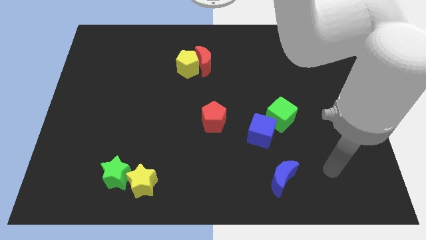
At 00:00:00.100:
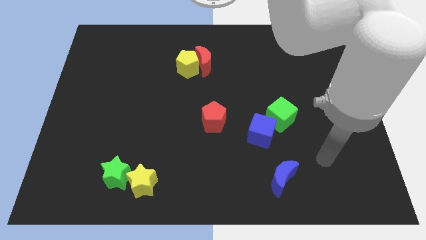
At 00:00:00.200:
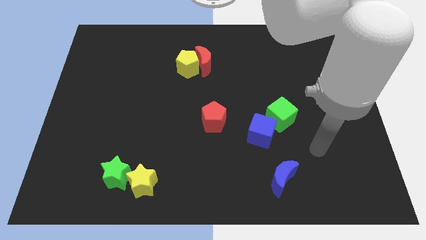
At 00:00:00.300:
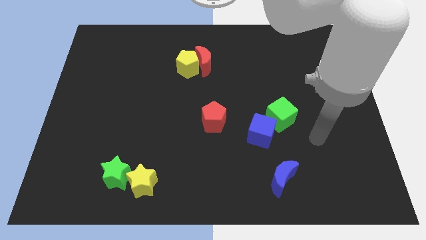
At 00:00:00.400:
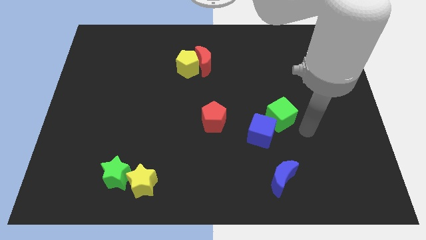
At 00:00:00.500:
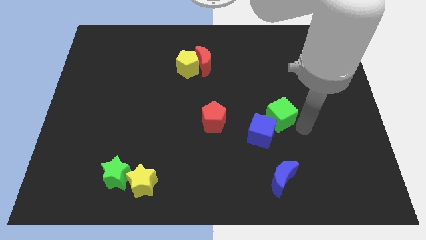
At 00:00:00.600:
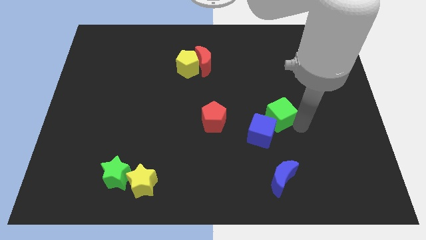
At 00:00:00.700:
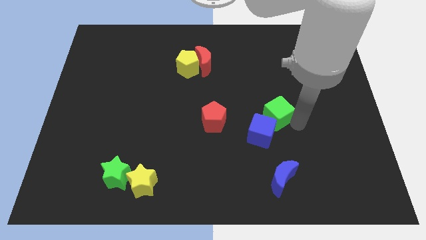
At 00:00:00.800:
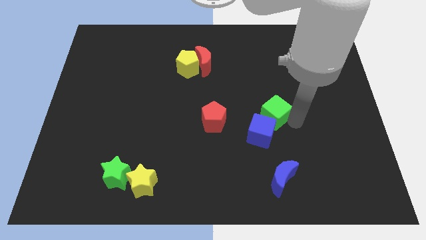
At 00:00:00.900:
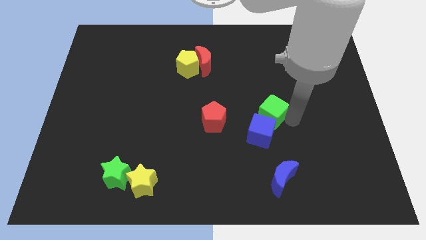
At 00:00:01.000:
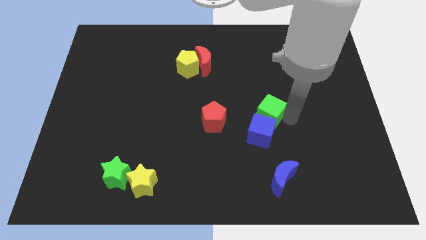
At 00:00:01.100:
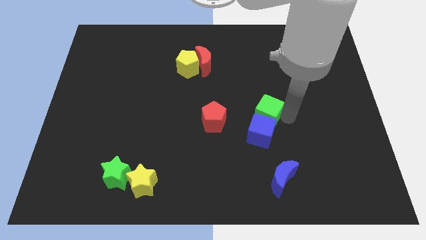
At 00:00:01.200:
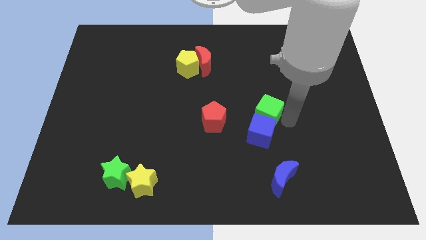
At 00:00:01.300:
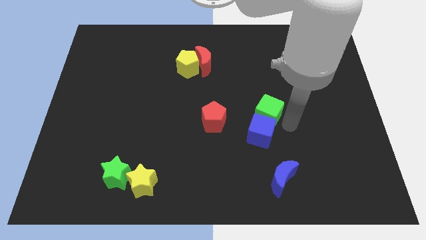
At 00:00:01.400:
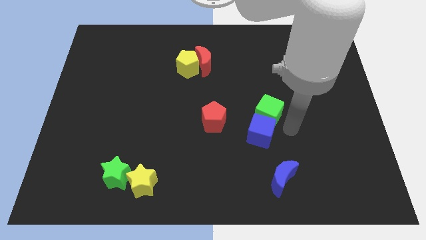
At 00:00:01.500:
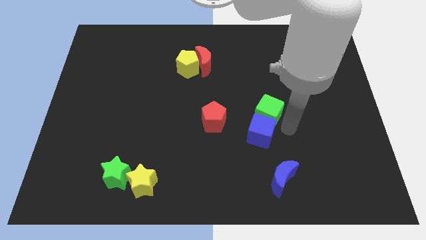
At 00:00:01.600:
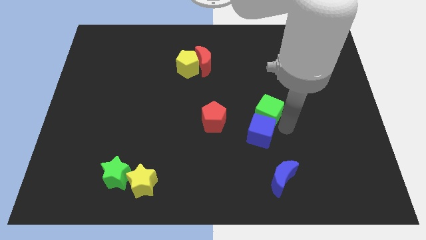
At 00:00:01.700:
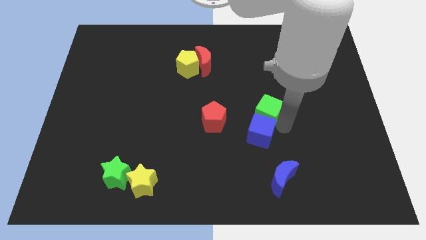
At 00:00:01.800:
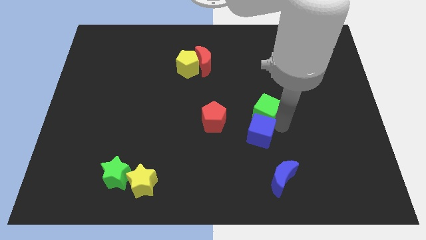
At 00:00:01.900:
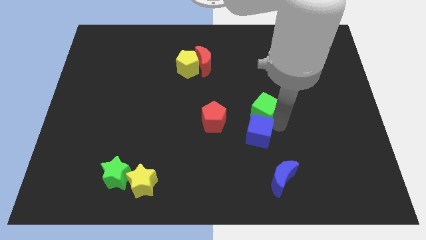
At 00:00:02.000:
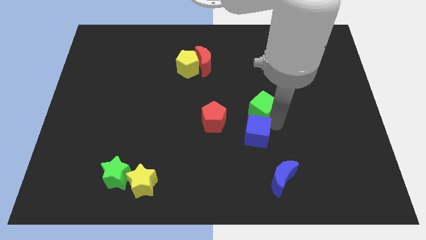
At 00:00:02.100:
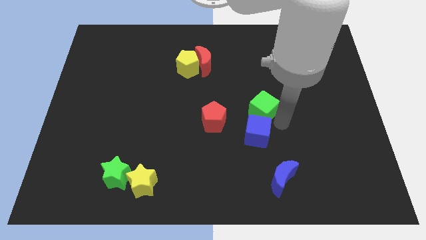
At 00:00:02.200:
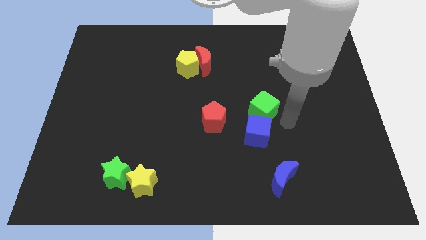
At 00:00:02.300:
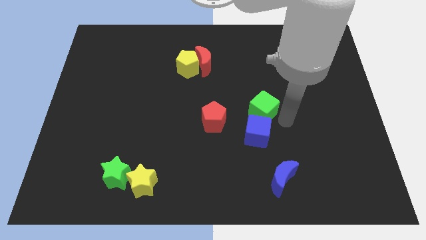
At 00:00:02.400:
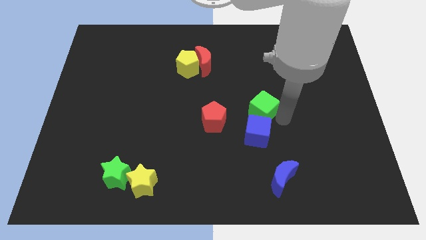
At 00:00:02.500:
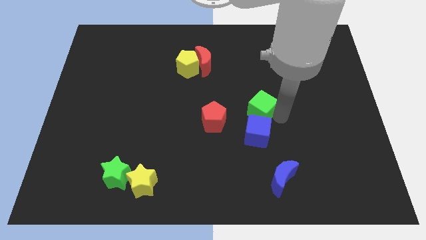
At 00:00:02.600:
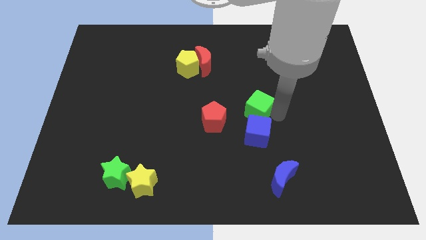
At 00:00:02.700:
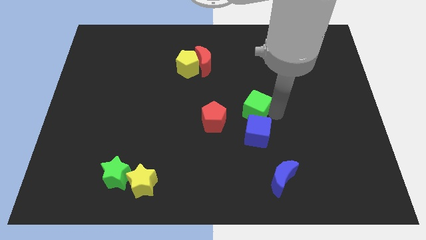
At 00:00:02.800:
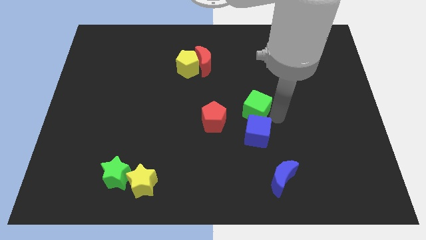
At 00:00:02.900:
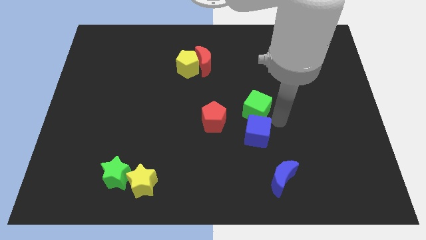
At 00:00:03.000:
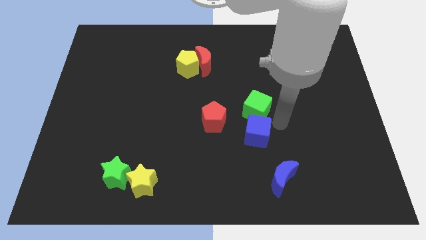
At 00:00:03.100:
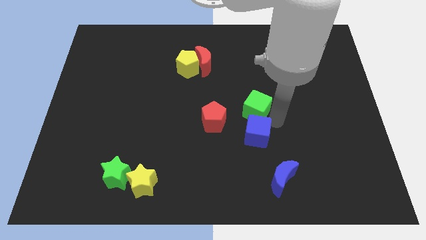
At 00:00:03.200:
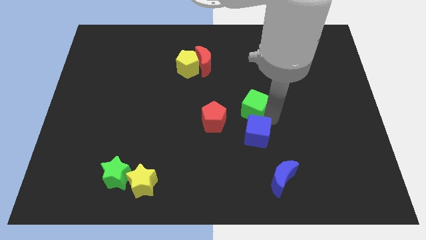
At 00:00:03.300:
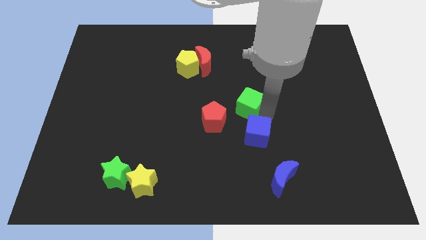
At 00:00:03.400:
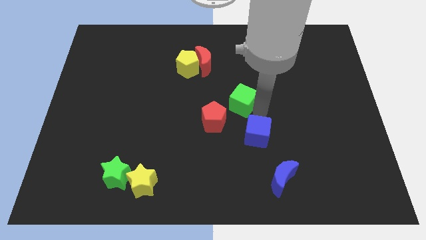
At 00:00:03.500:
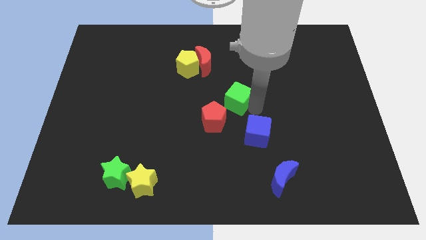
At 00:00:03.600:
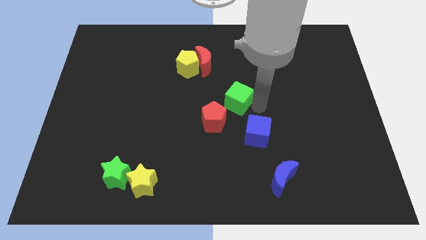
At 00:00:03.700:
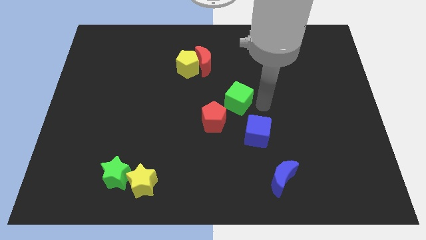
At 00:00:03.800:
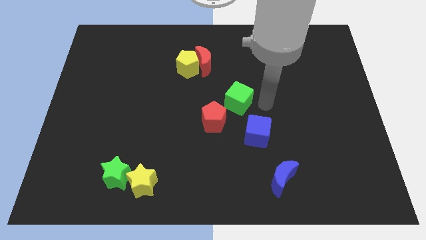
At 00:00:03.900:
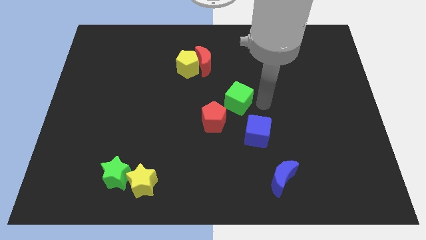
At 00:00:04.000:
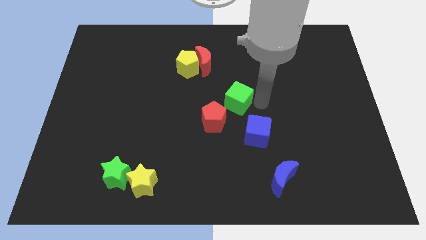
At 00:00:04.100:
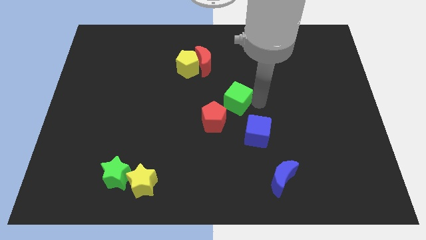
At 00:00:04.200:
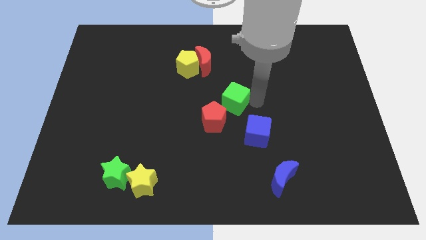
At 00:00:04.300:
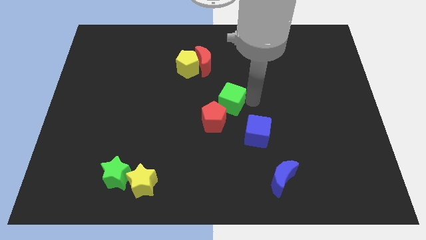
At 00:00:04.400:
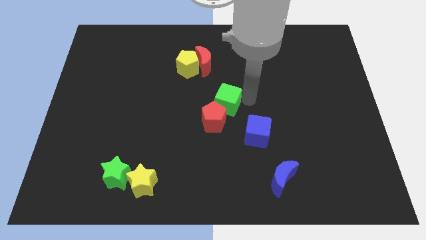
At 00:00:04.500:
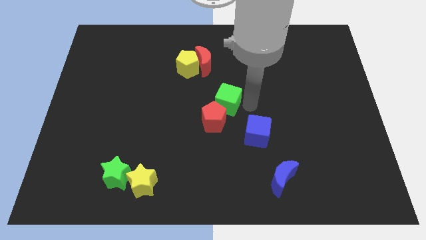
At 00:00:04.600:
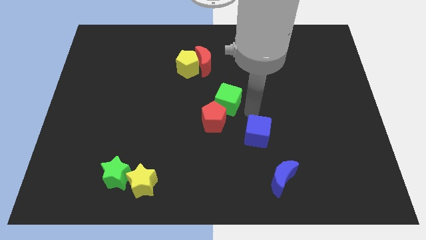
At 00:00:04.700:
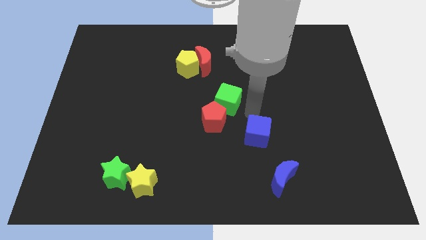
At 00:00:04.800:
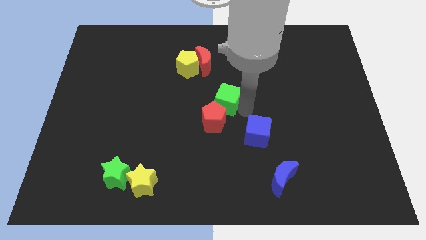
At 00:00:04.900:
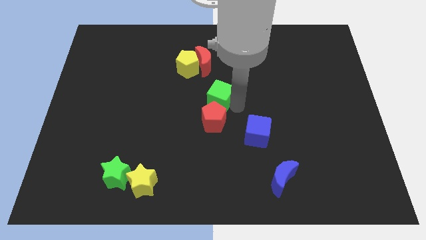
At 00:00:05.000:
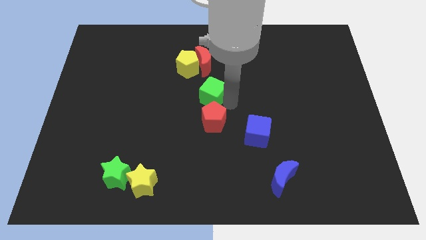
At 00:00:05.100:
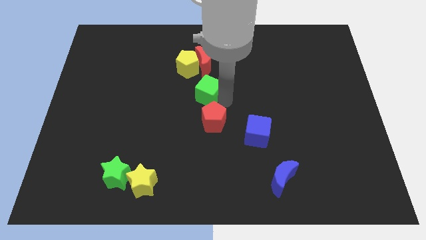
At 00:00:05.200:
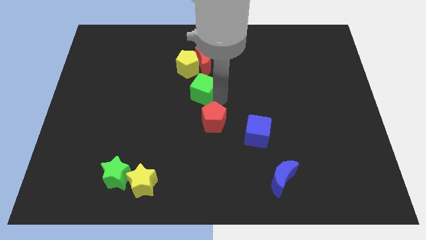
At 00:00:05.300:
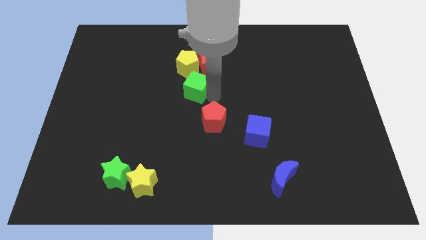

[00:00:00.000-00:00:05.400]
move the green cube to the bottom left side of the red moon
